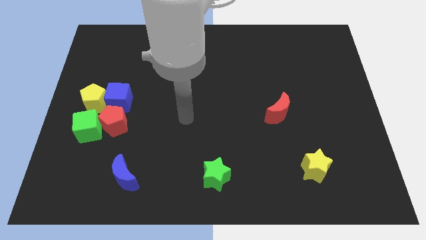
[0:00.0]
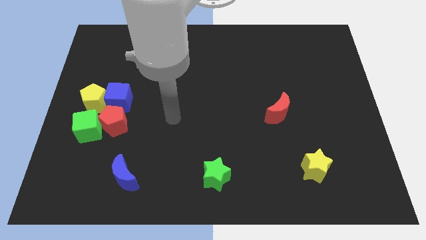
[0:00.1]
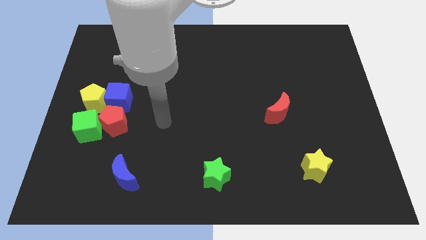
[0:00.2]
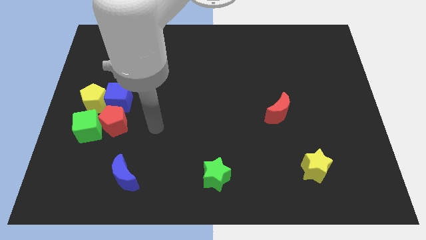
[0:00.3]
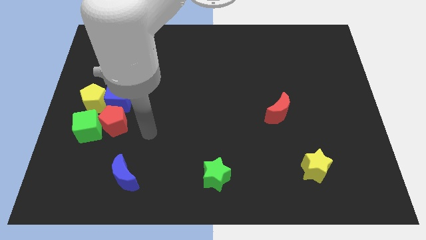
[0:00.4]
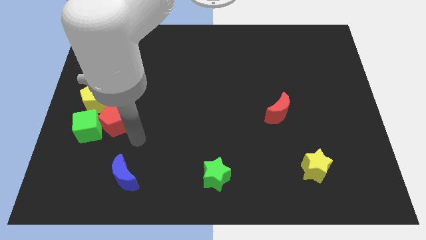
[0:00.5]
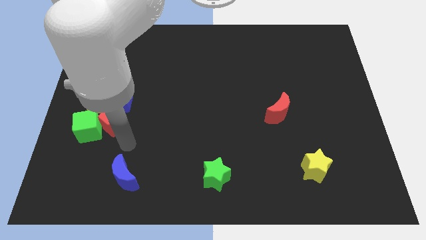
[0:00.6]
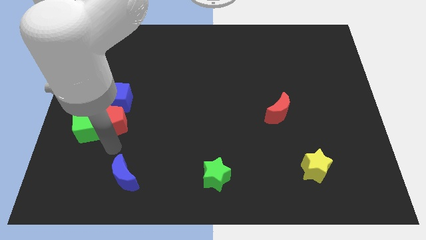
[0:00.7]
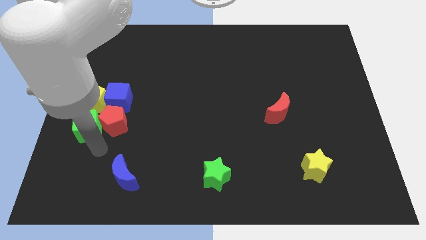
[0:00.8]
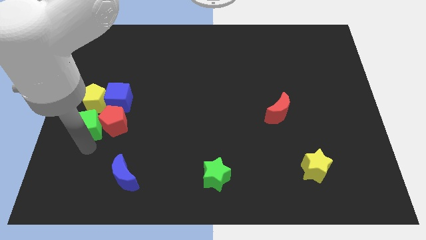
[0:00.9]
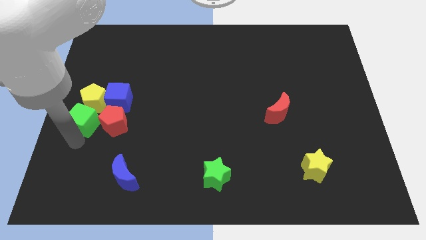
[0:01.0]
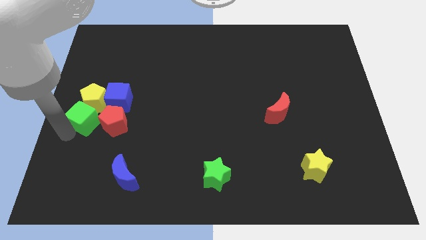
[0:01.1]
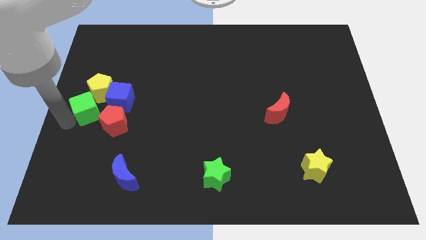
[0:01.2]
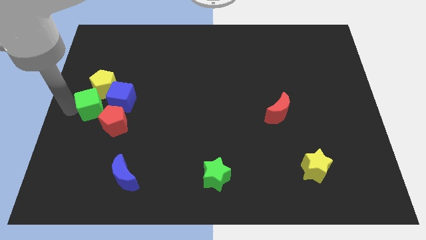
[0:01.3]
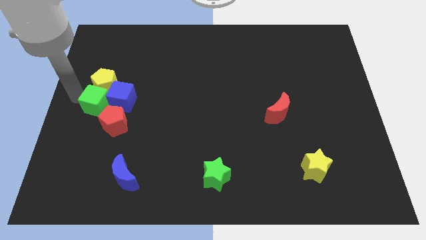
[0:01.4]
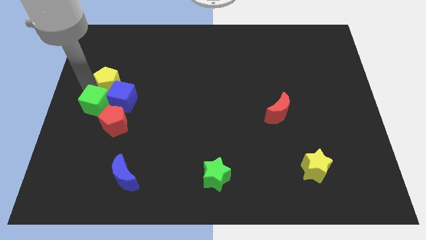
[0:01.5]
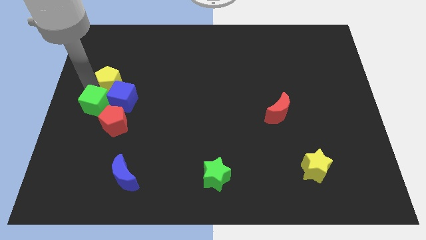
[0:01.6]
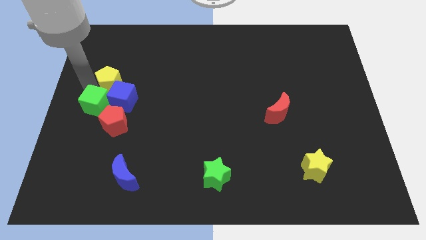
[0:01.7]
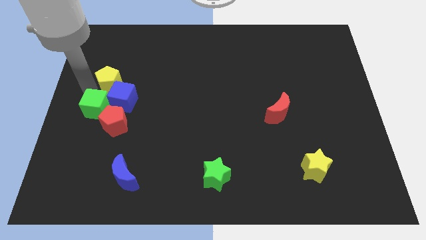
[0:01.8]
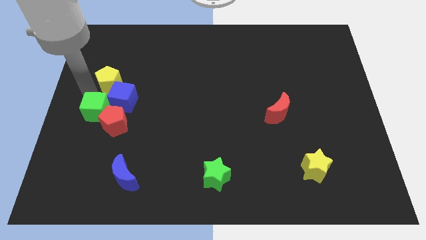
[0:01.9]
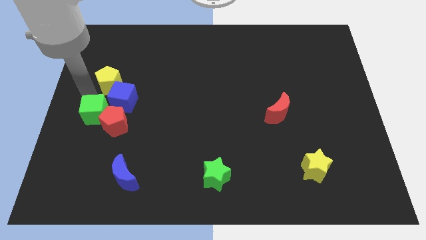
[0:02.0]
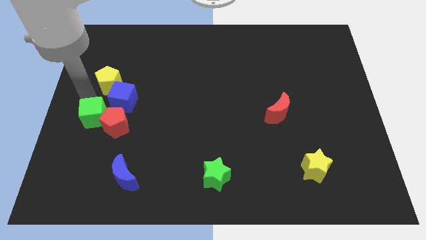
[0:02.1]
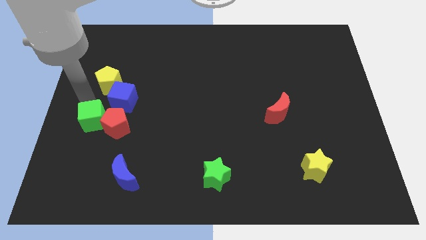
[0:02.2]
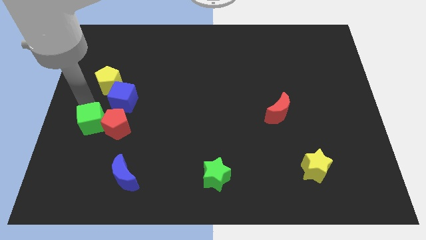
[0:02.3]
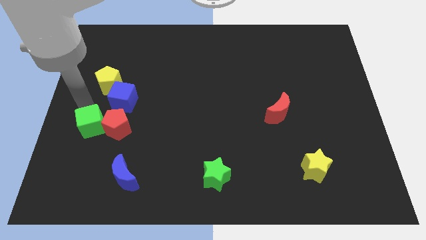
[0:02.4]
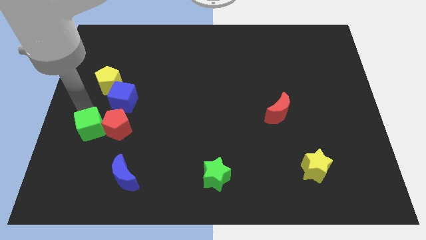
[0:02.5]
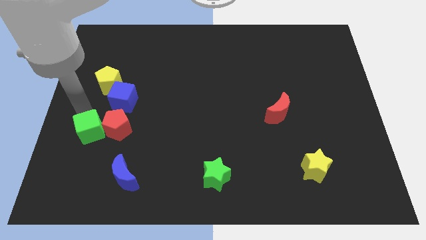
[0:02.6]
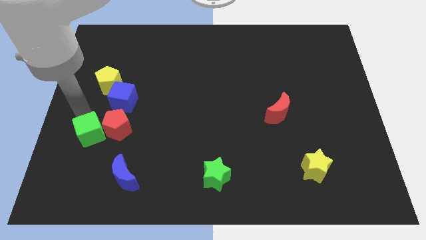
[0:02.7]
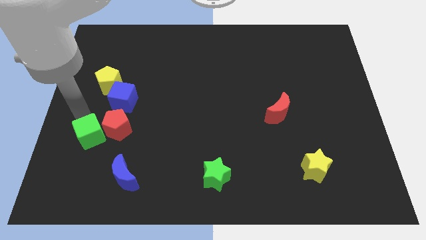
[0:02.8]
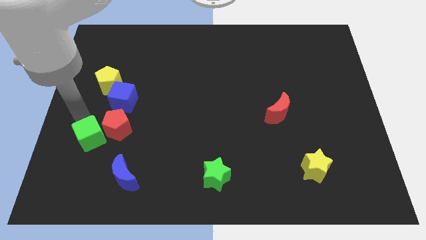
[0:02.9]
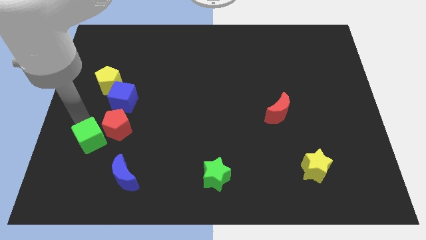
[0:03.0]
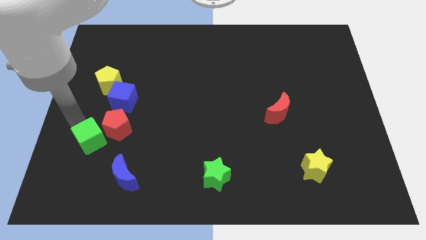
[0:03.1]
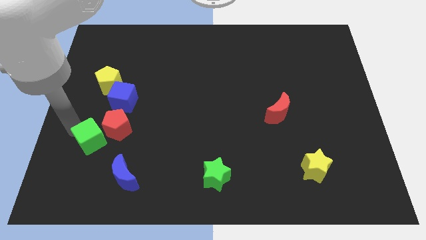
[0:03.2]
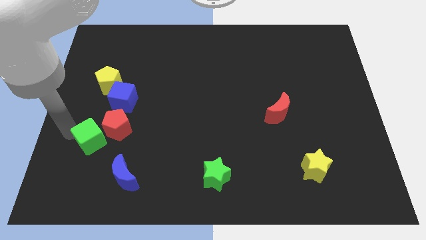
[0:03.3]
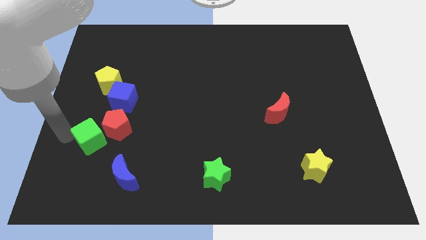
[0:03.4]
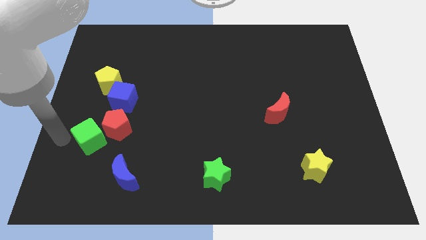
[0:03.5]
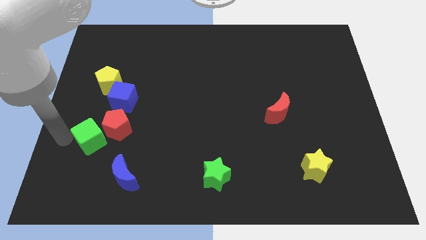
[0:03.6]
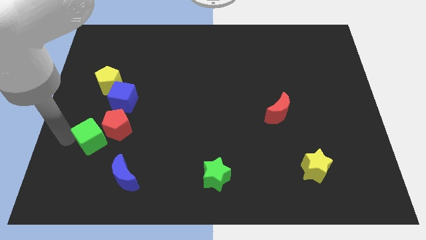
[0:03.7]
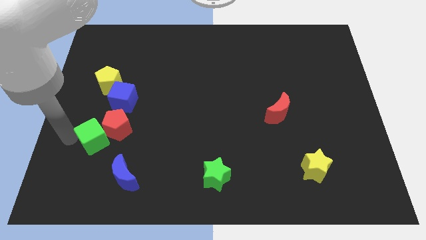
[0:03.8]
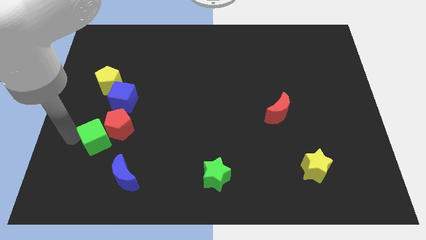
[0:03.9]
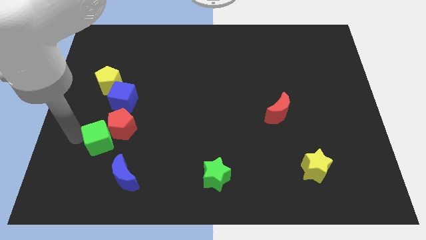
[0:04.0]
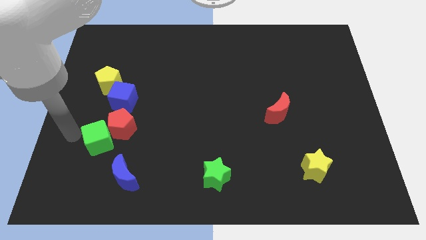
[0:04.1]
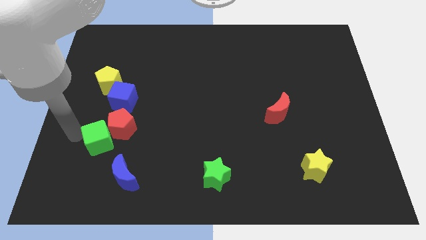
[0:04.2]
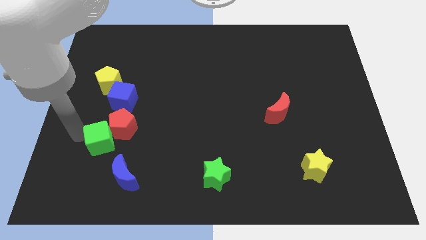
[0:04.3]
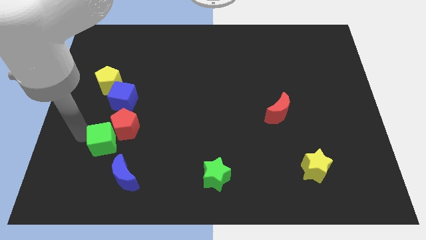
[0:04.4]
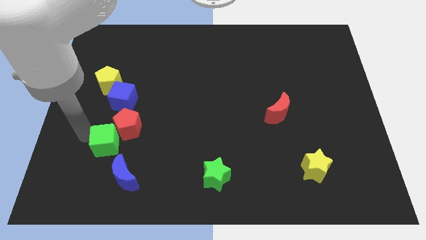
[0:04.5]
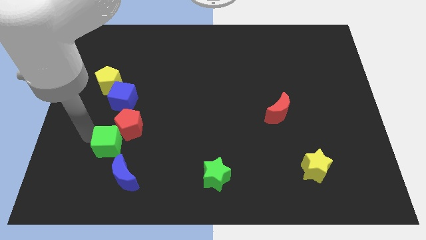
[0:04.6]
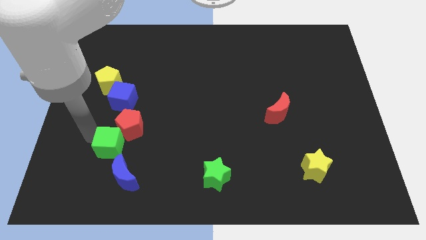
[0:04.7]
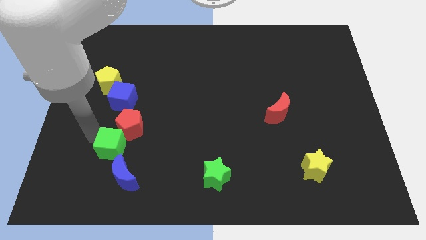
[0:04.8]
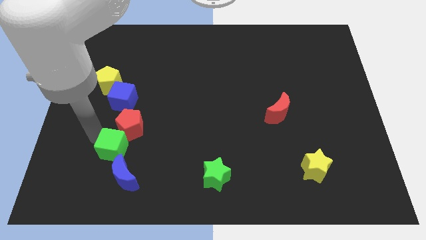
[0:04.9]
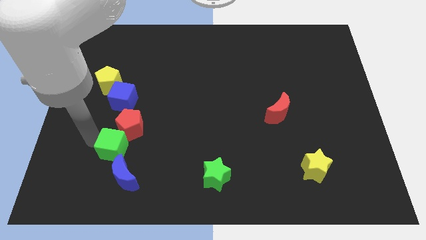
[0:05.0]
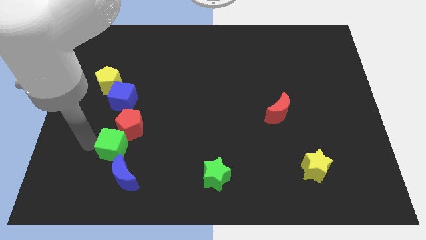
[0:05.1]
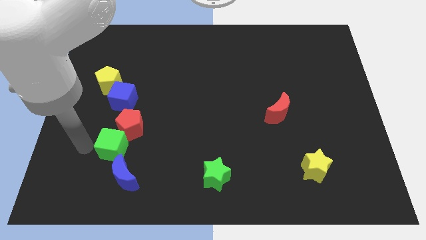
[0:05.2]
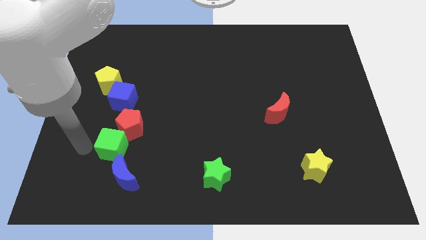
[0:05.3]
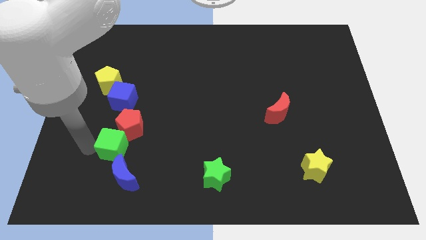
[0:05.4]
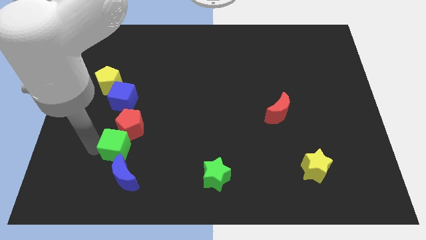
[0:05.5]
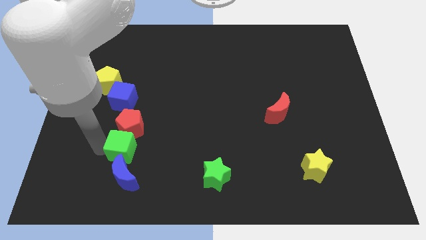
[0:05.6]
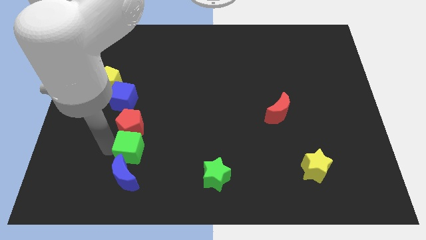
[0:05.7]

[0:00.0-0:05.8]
move the green cube to the top right of the blue moon

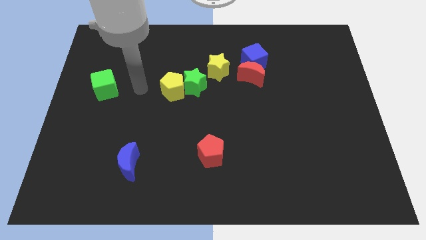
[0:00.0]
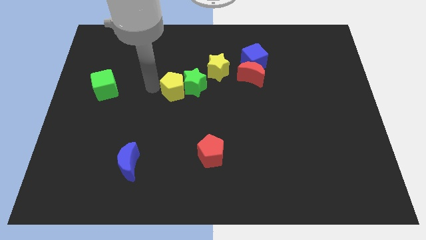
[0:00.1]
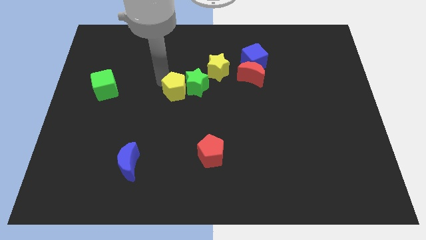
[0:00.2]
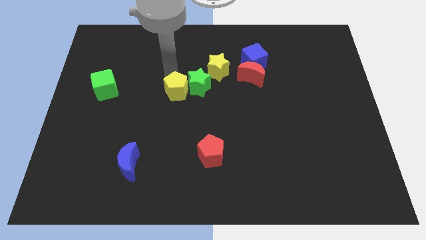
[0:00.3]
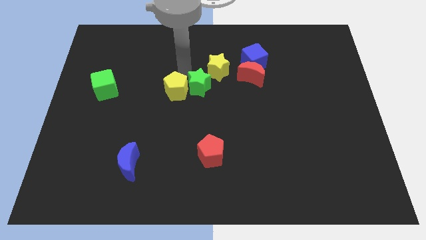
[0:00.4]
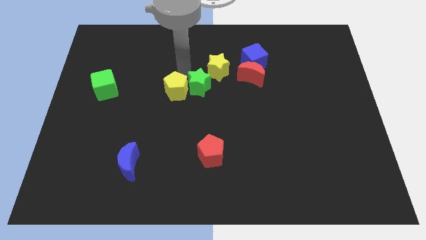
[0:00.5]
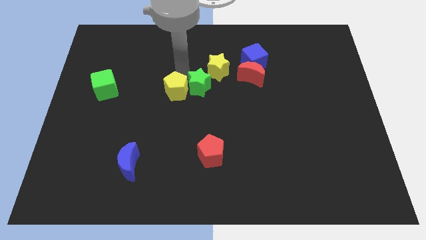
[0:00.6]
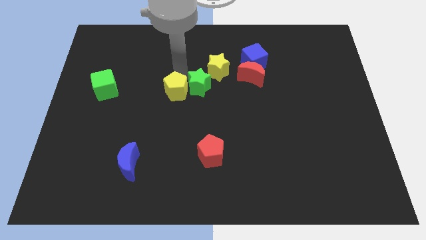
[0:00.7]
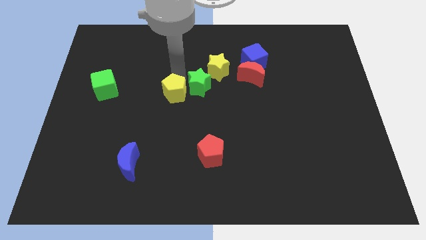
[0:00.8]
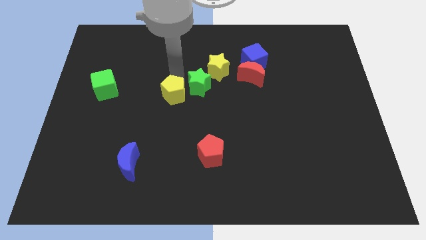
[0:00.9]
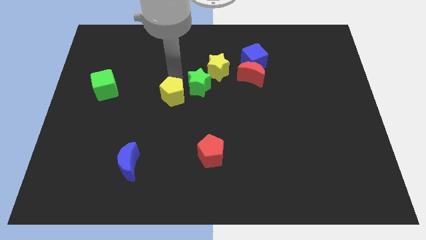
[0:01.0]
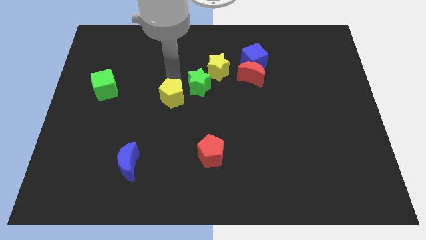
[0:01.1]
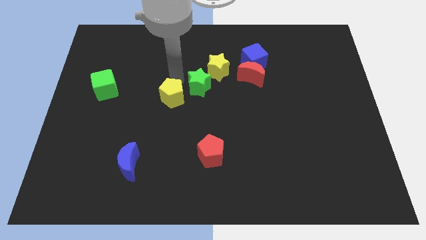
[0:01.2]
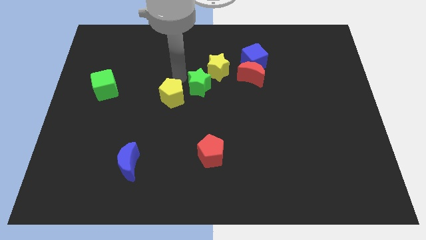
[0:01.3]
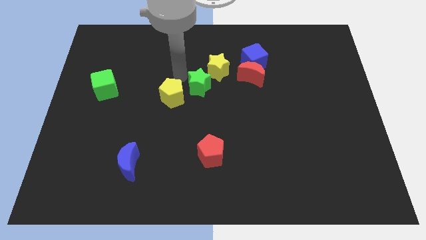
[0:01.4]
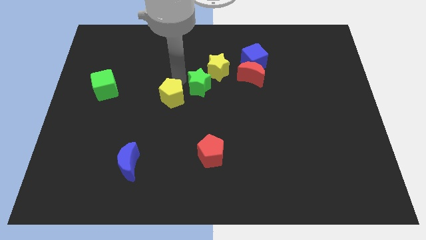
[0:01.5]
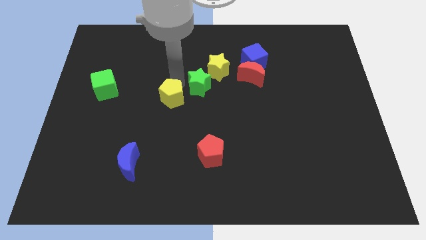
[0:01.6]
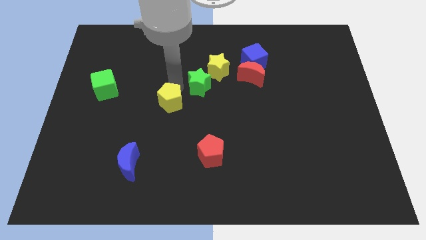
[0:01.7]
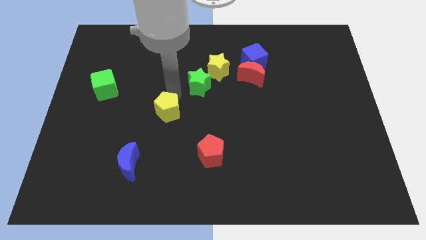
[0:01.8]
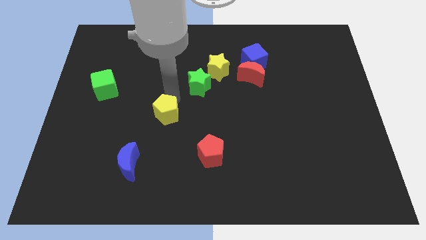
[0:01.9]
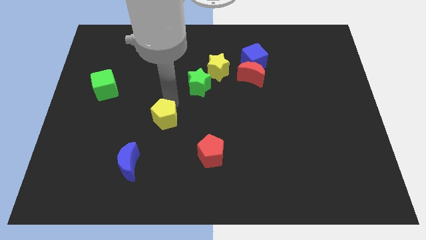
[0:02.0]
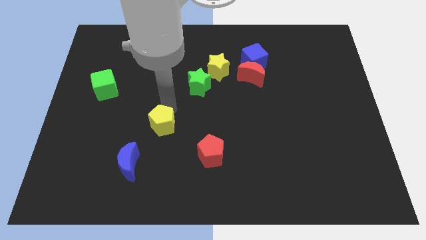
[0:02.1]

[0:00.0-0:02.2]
push the yellow pentagon diagonally up and to the right of the blue moon
